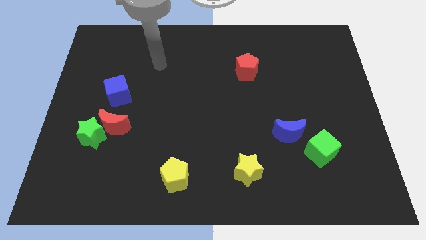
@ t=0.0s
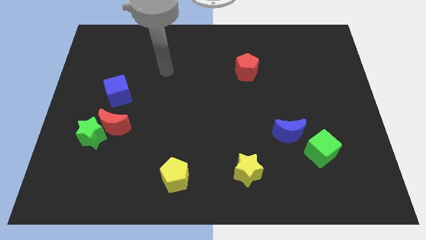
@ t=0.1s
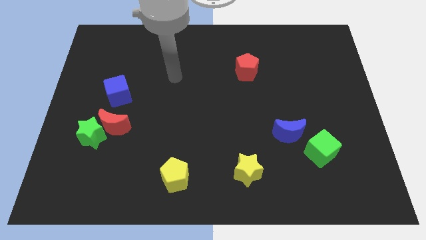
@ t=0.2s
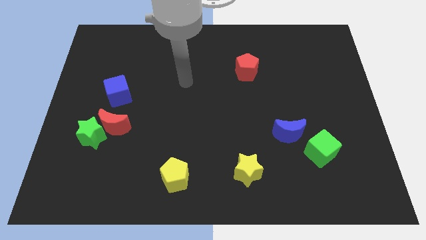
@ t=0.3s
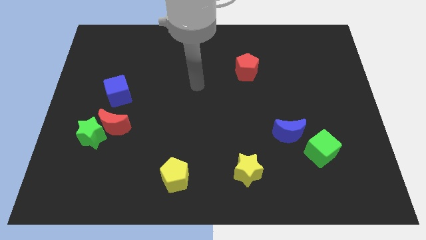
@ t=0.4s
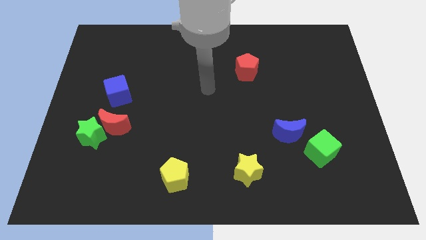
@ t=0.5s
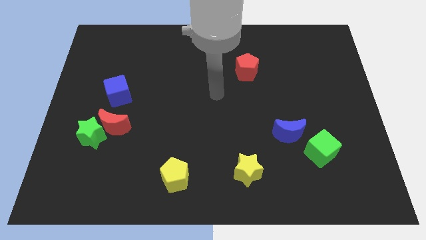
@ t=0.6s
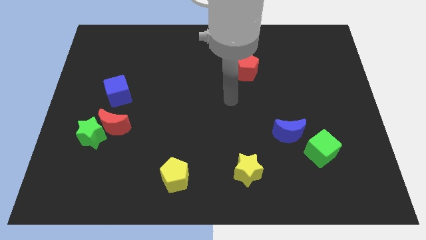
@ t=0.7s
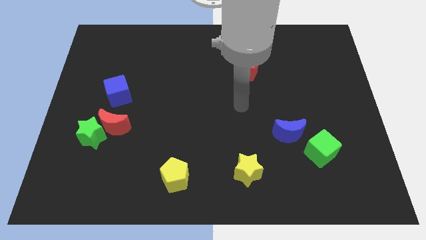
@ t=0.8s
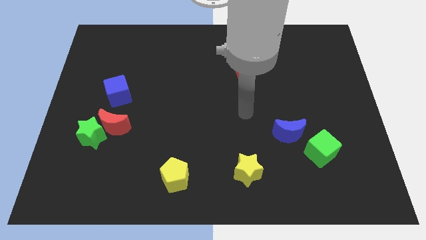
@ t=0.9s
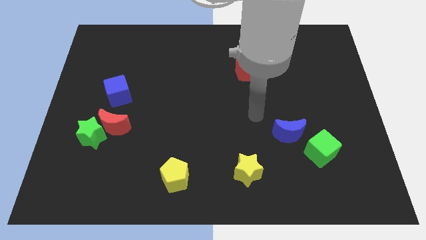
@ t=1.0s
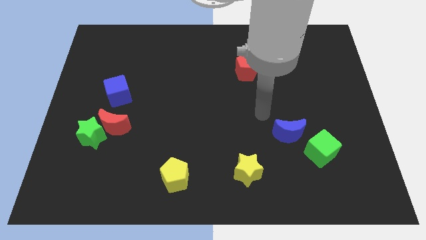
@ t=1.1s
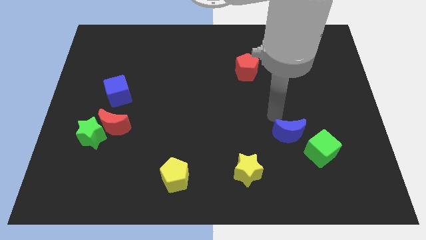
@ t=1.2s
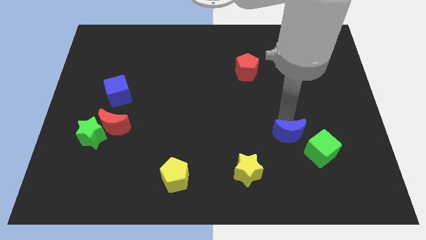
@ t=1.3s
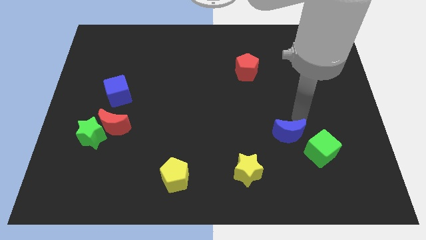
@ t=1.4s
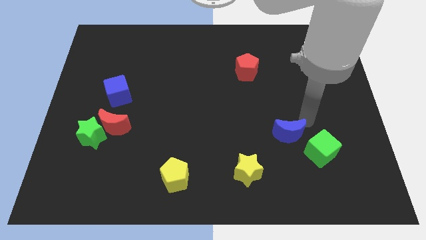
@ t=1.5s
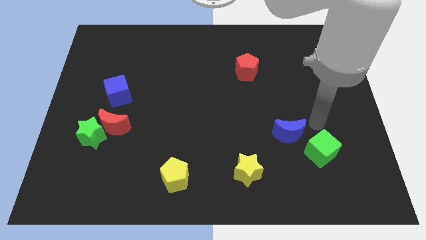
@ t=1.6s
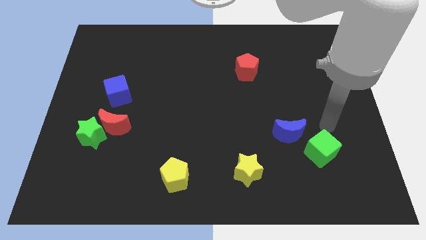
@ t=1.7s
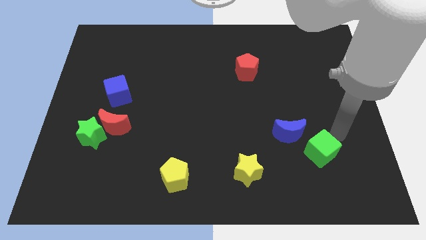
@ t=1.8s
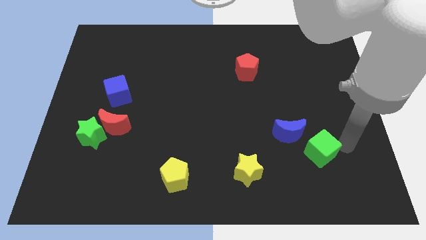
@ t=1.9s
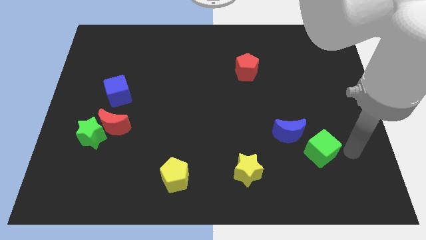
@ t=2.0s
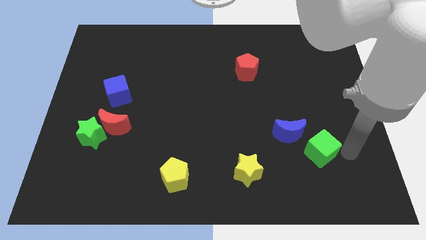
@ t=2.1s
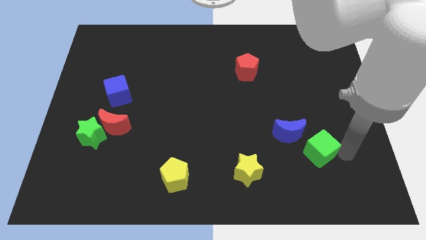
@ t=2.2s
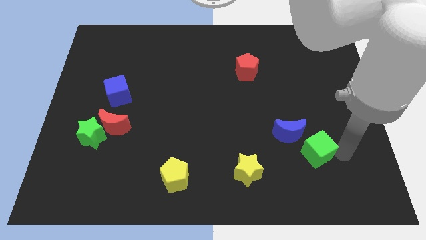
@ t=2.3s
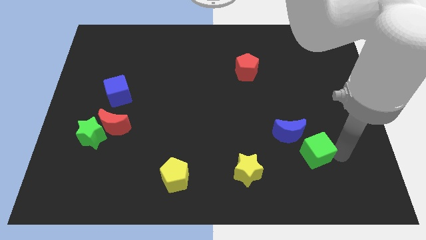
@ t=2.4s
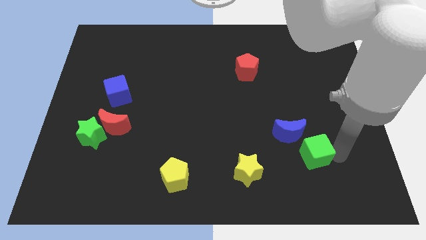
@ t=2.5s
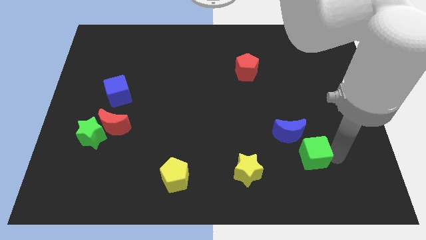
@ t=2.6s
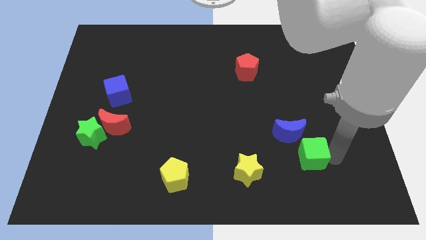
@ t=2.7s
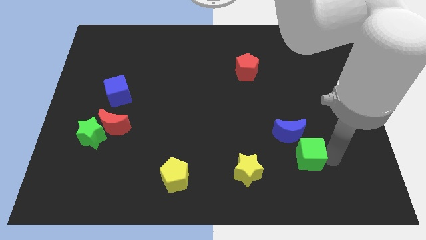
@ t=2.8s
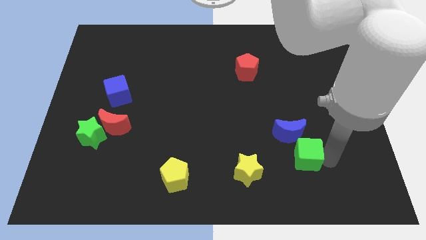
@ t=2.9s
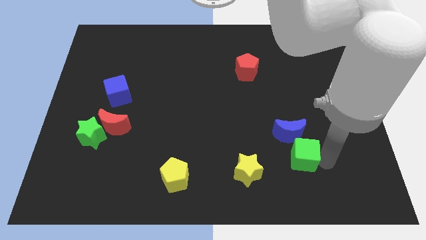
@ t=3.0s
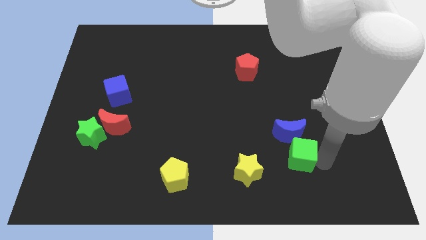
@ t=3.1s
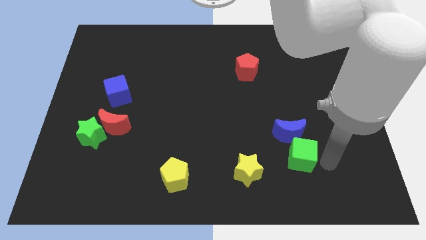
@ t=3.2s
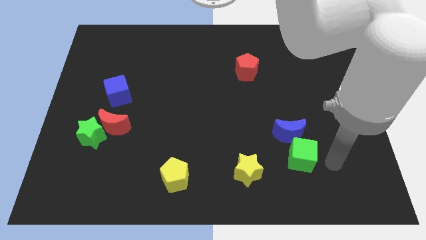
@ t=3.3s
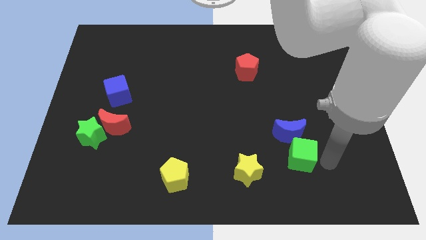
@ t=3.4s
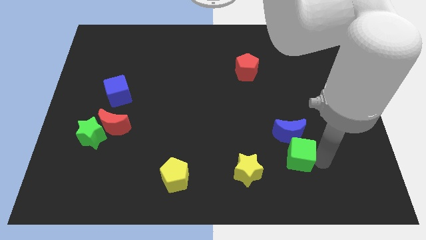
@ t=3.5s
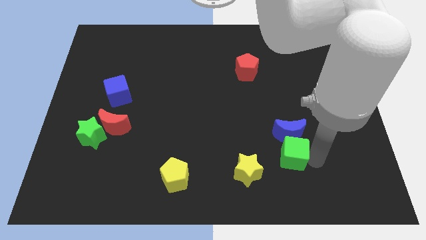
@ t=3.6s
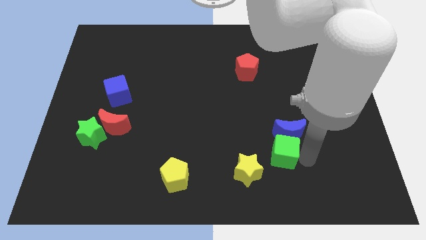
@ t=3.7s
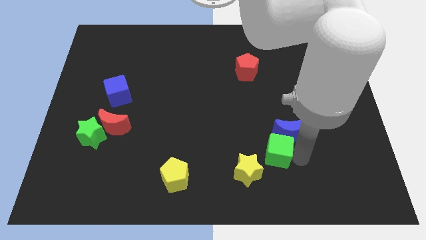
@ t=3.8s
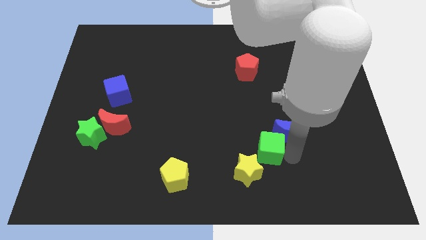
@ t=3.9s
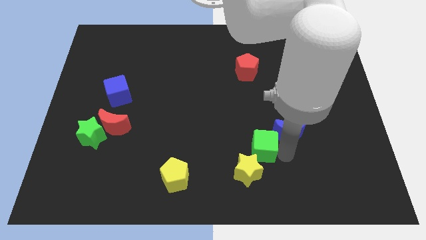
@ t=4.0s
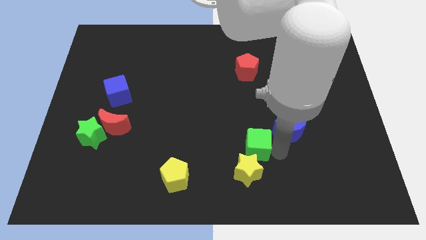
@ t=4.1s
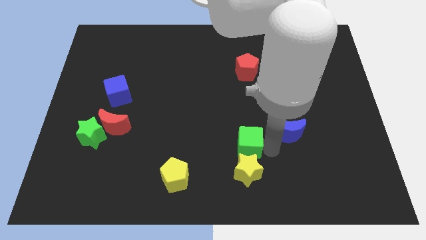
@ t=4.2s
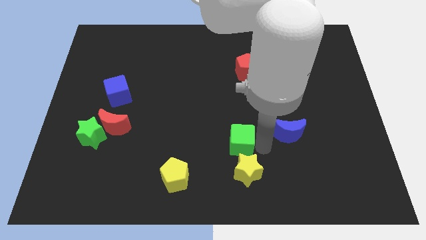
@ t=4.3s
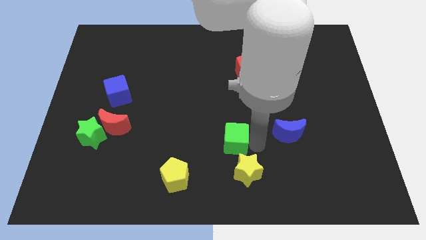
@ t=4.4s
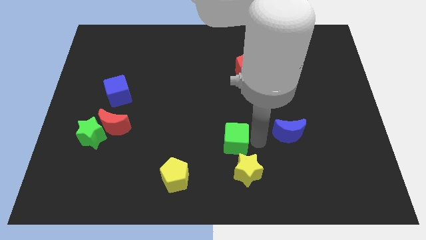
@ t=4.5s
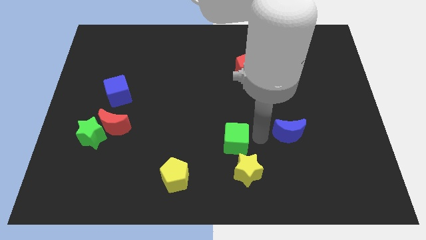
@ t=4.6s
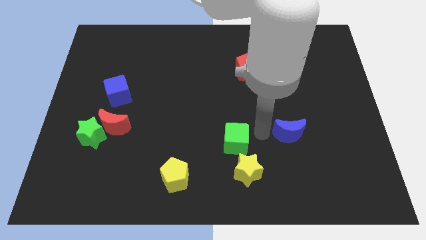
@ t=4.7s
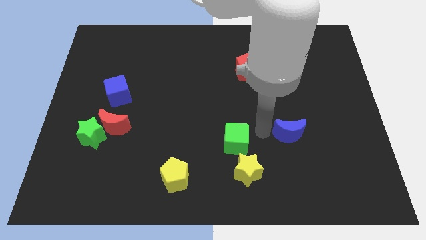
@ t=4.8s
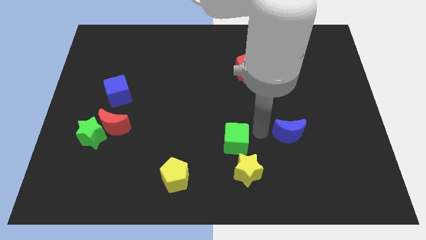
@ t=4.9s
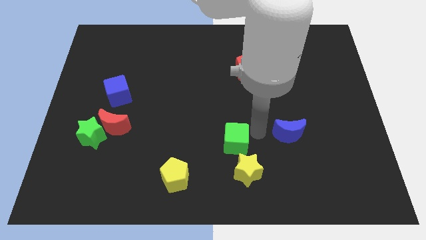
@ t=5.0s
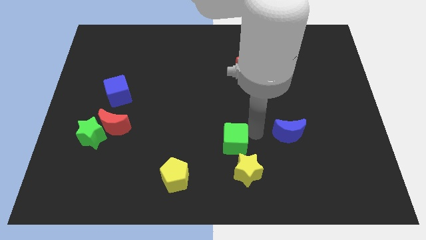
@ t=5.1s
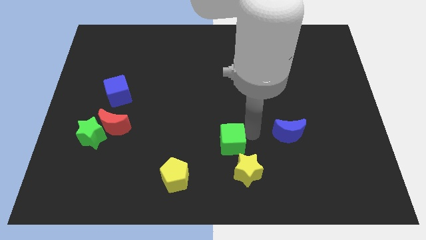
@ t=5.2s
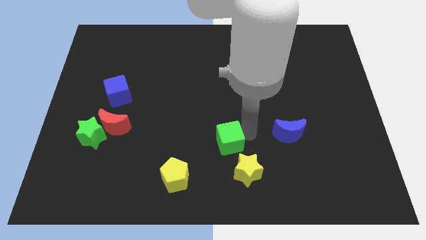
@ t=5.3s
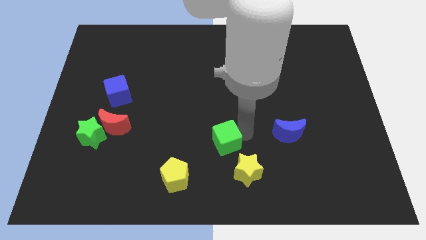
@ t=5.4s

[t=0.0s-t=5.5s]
slide the green cube to the left

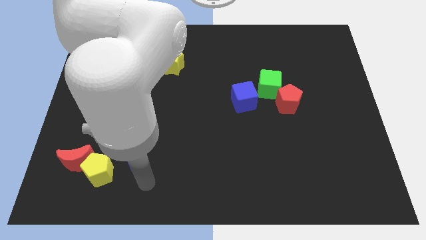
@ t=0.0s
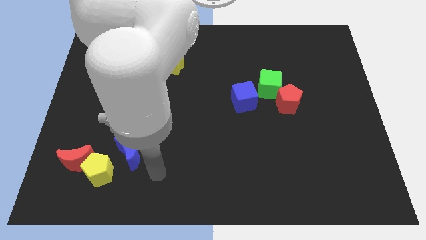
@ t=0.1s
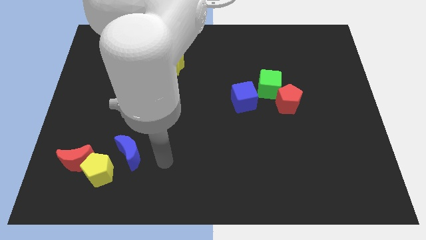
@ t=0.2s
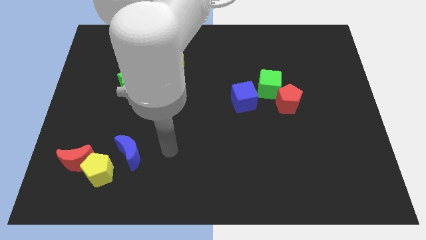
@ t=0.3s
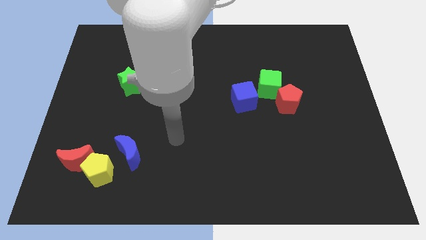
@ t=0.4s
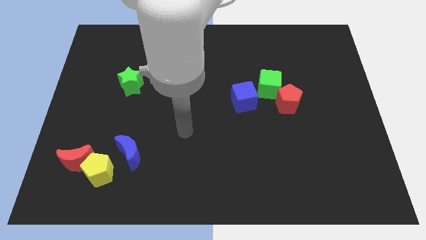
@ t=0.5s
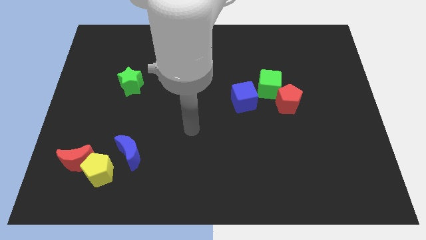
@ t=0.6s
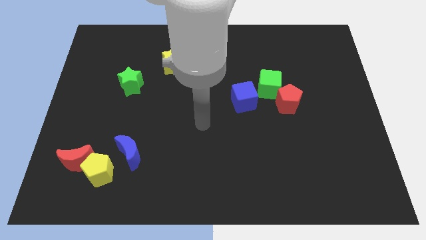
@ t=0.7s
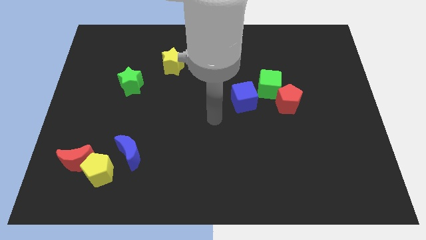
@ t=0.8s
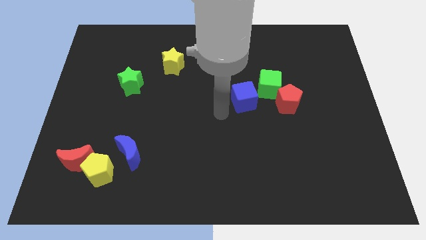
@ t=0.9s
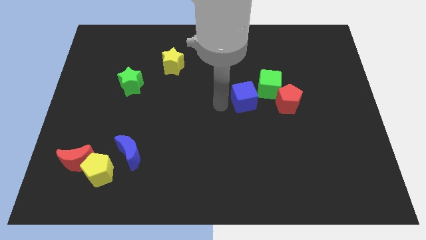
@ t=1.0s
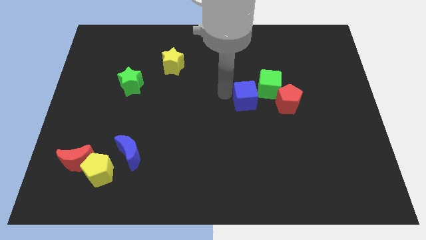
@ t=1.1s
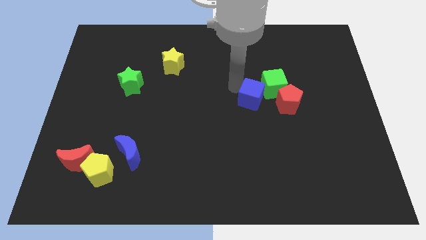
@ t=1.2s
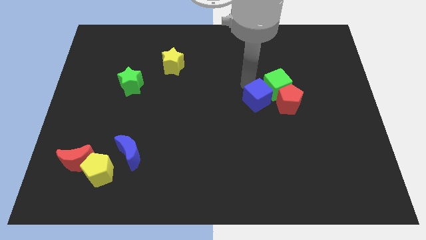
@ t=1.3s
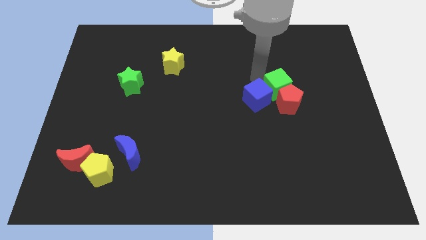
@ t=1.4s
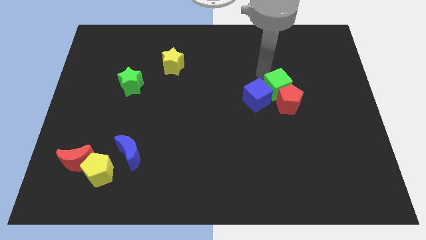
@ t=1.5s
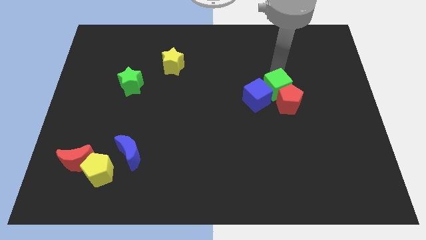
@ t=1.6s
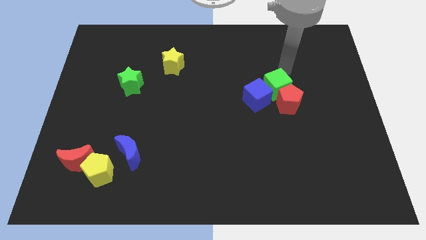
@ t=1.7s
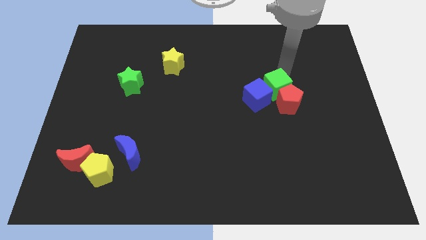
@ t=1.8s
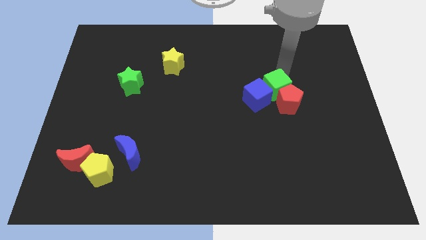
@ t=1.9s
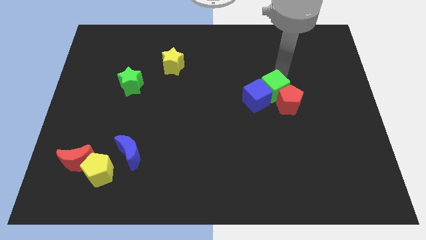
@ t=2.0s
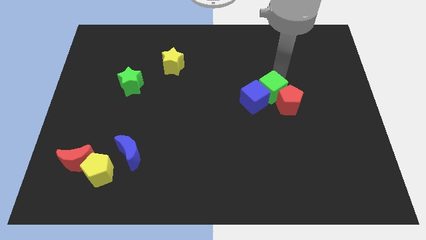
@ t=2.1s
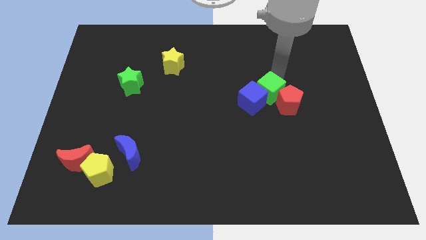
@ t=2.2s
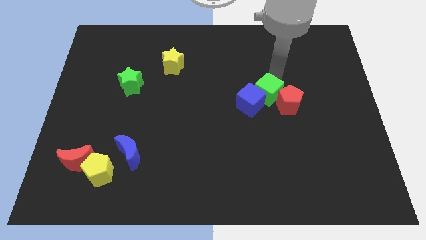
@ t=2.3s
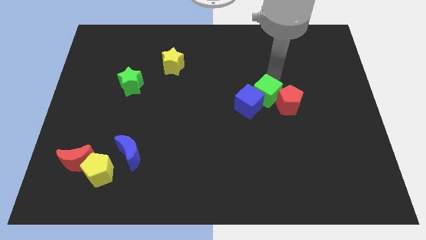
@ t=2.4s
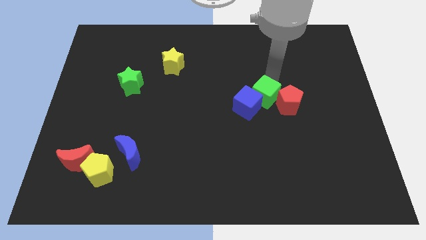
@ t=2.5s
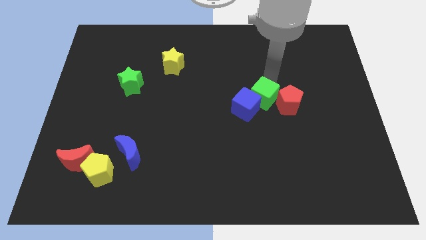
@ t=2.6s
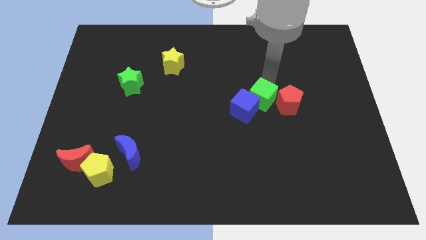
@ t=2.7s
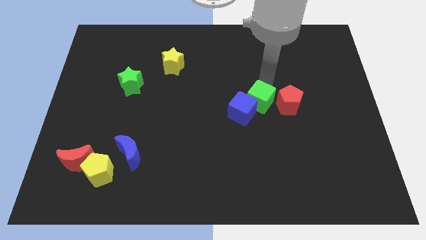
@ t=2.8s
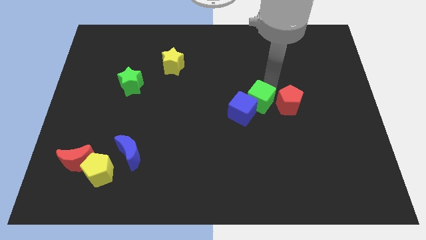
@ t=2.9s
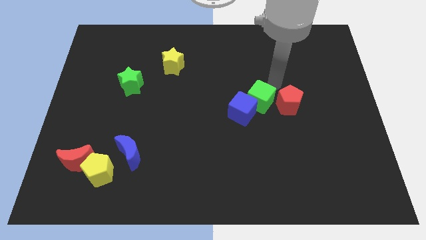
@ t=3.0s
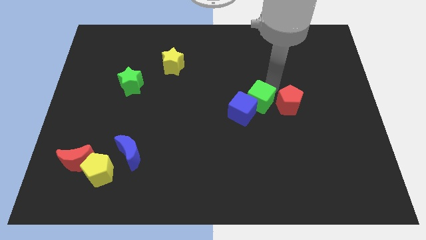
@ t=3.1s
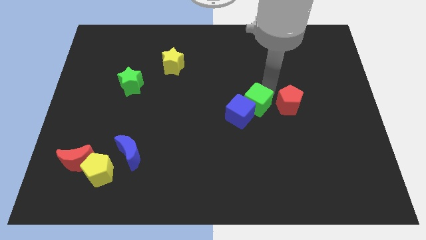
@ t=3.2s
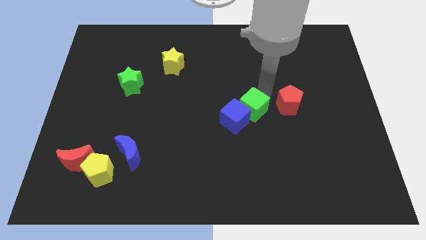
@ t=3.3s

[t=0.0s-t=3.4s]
slide the green cube down and left diagonally a little bit
